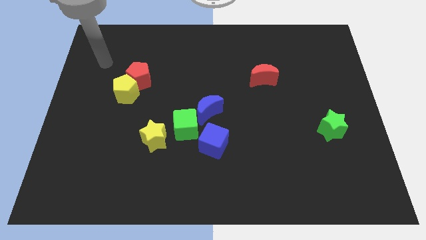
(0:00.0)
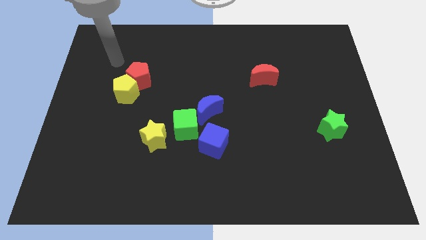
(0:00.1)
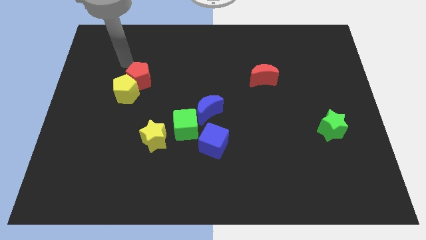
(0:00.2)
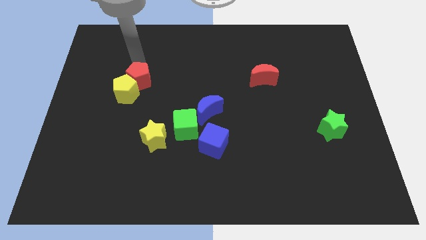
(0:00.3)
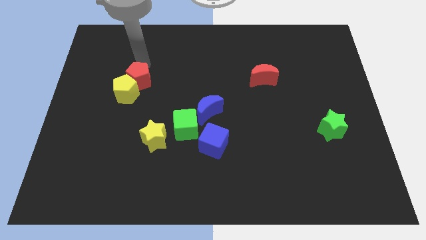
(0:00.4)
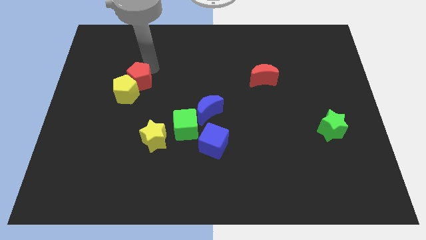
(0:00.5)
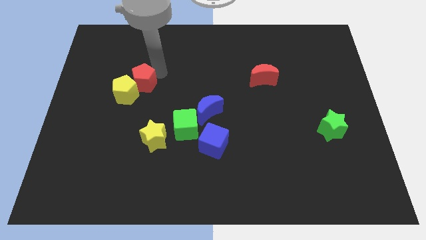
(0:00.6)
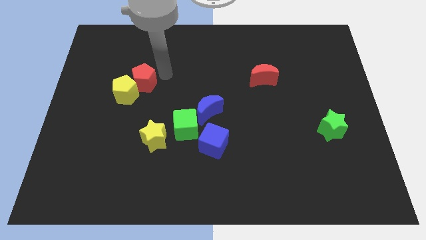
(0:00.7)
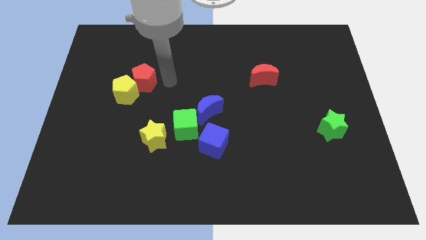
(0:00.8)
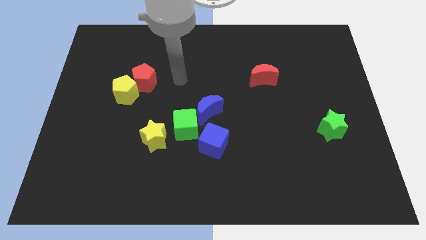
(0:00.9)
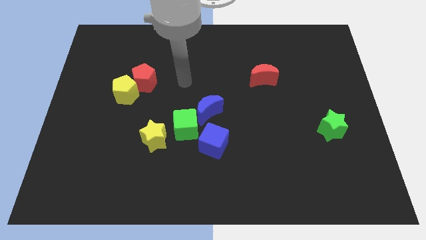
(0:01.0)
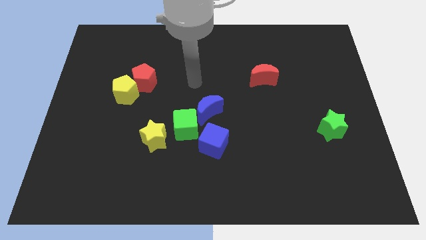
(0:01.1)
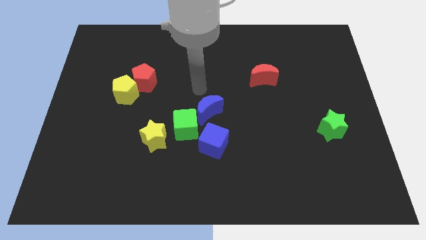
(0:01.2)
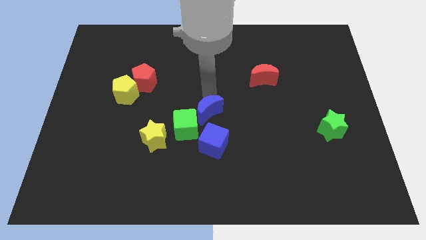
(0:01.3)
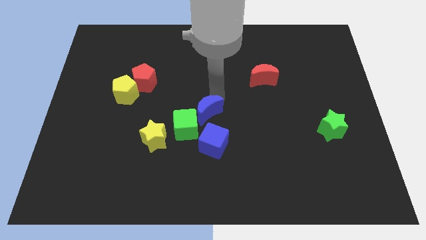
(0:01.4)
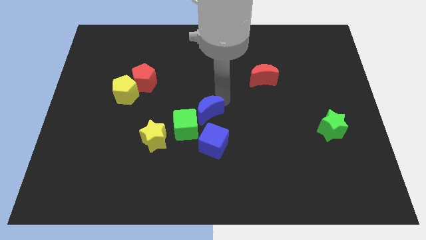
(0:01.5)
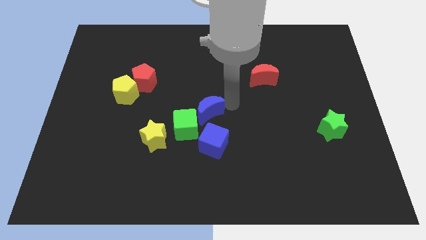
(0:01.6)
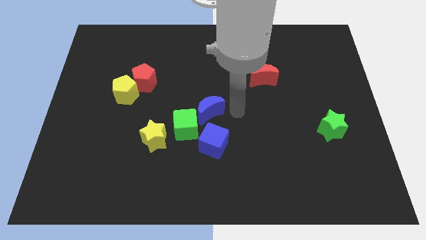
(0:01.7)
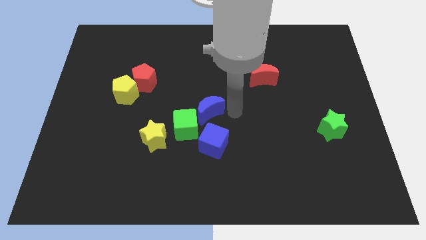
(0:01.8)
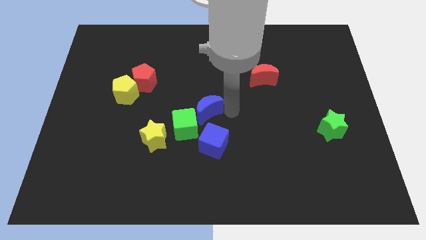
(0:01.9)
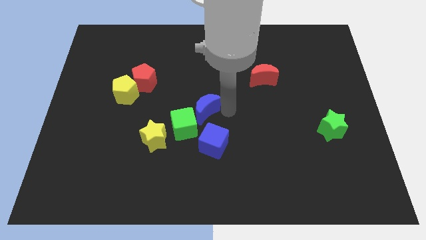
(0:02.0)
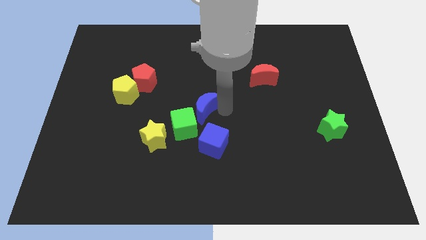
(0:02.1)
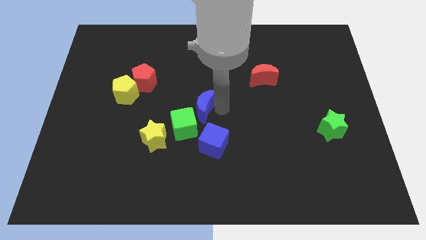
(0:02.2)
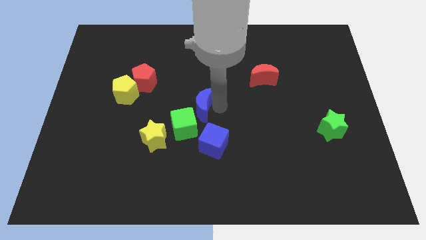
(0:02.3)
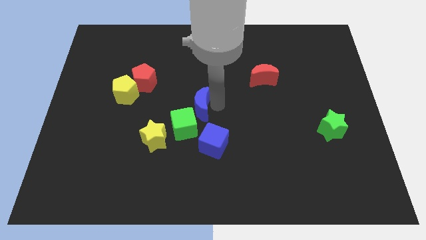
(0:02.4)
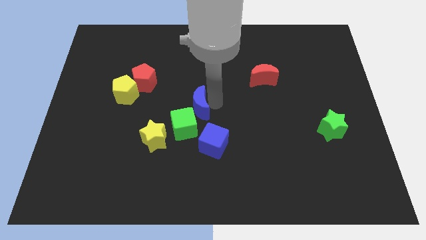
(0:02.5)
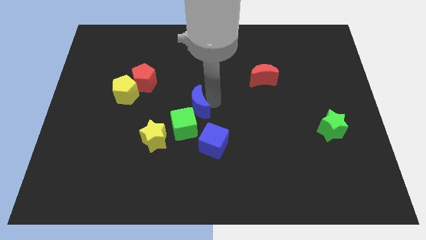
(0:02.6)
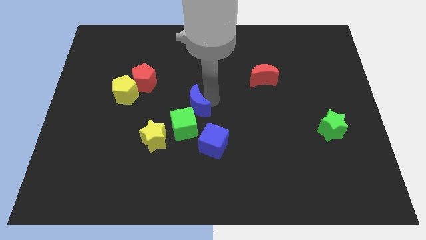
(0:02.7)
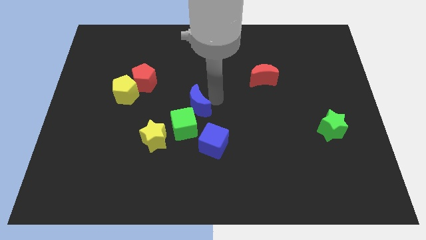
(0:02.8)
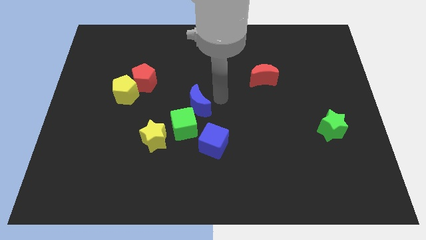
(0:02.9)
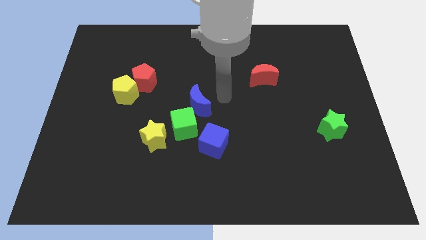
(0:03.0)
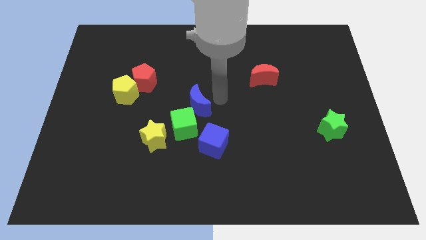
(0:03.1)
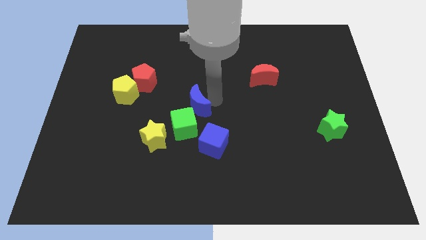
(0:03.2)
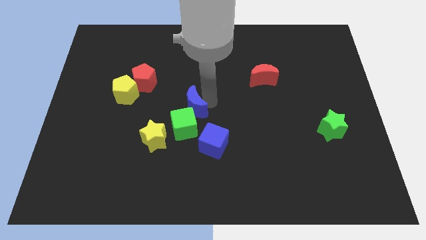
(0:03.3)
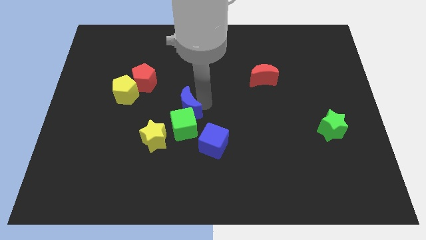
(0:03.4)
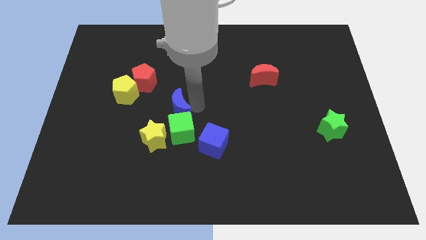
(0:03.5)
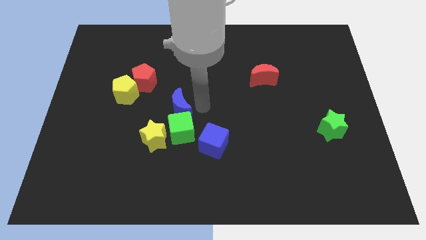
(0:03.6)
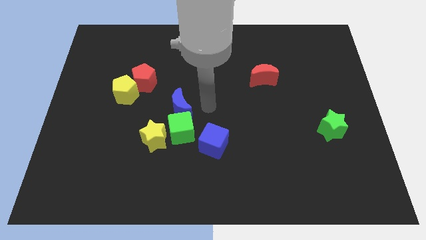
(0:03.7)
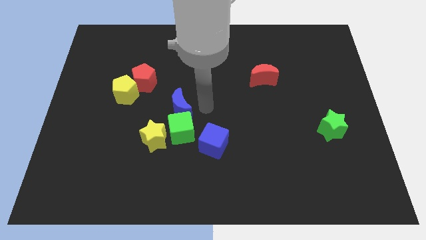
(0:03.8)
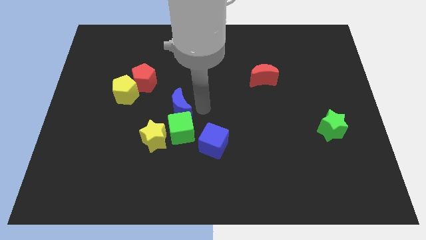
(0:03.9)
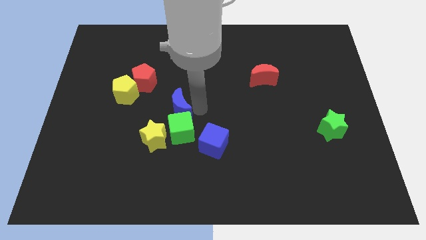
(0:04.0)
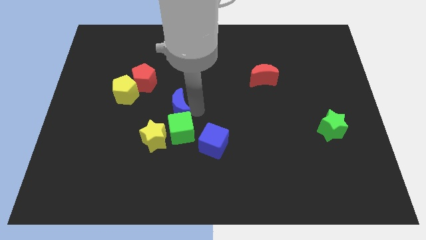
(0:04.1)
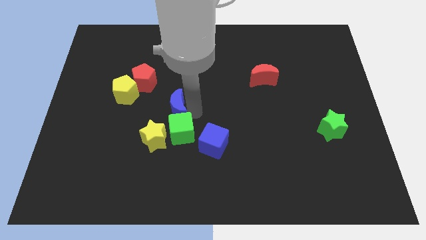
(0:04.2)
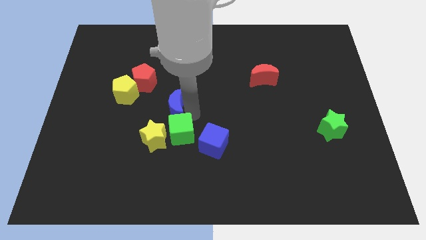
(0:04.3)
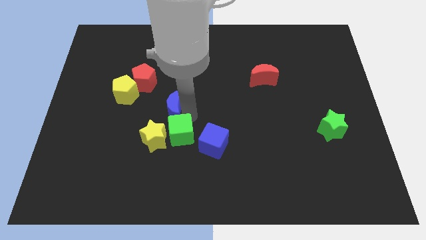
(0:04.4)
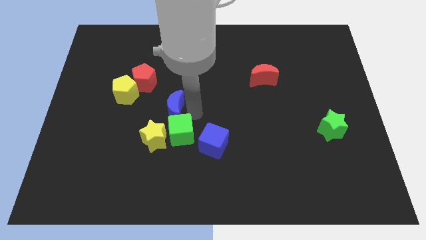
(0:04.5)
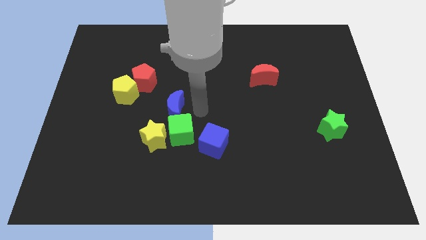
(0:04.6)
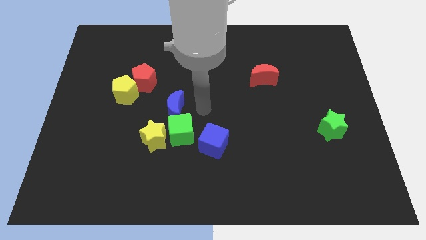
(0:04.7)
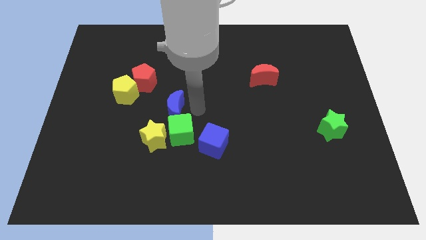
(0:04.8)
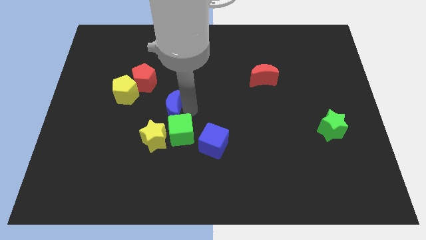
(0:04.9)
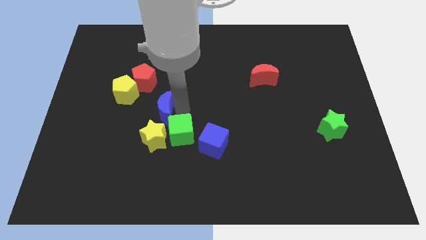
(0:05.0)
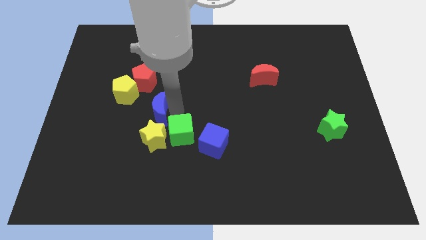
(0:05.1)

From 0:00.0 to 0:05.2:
slide the blue moon to the bottom of the red pentagon

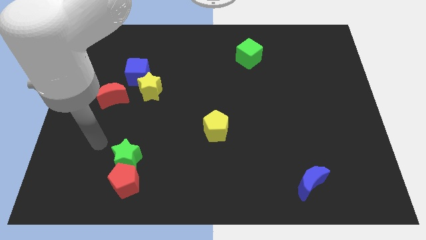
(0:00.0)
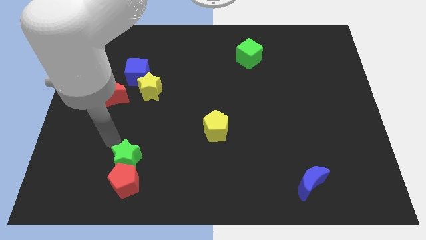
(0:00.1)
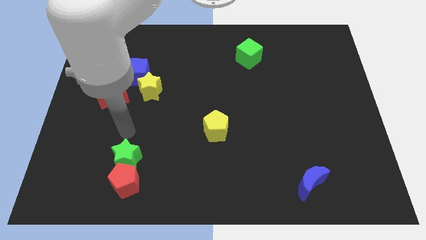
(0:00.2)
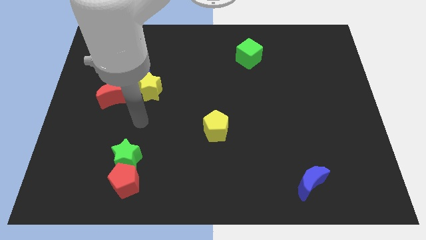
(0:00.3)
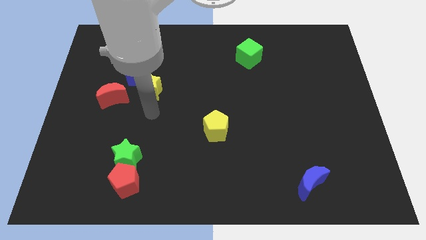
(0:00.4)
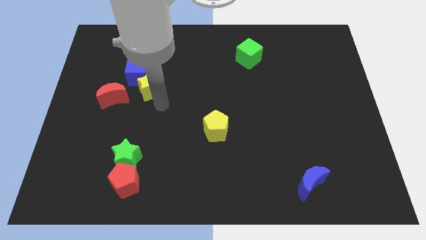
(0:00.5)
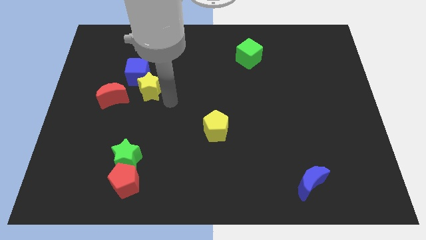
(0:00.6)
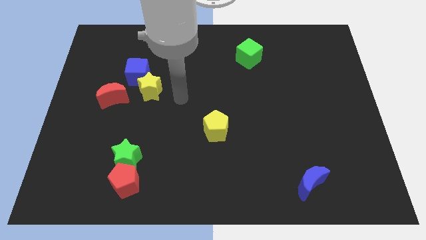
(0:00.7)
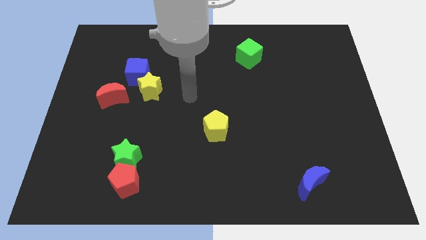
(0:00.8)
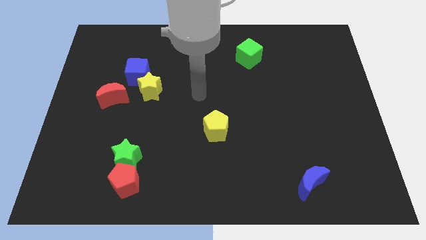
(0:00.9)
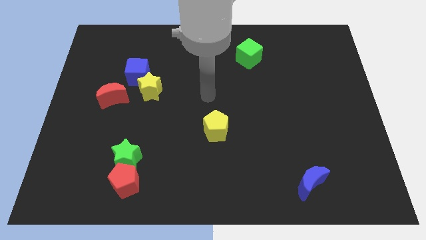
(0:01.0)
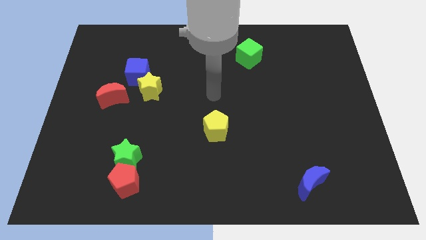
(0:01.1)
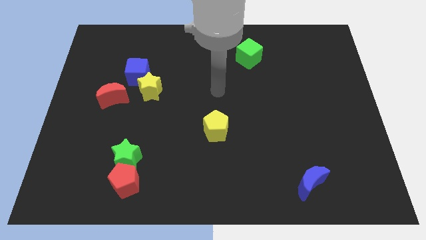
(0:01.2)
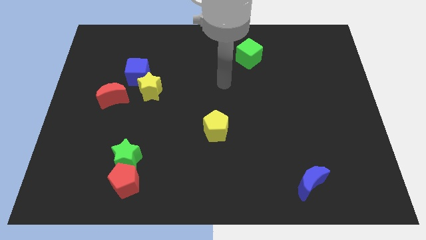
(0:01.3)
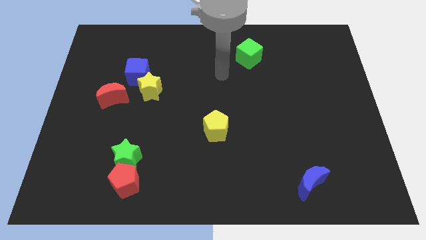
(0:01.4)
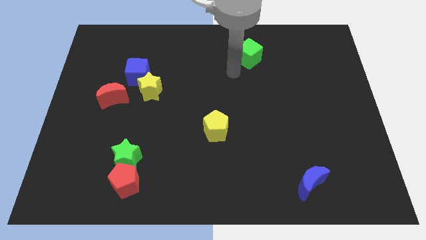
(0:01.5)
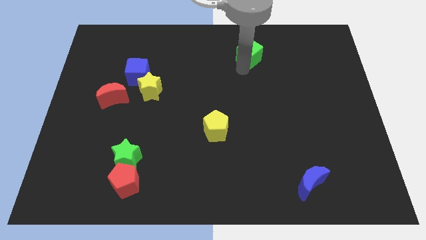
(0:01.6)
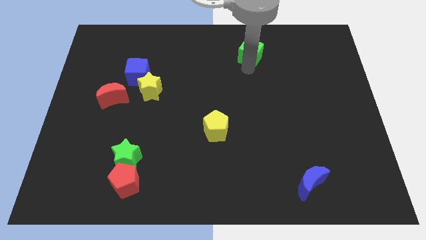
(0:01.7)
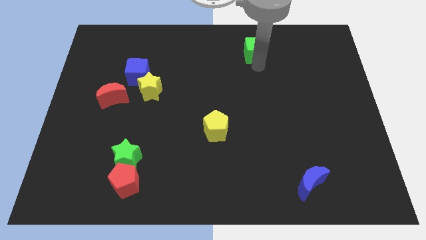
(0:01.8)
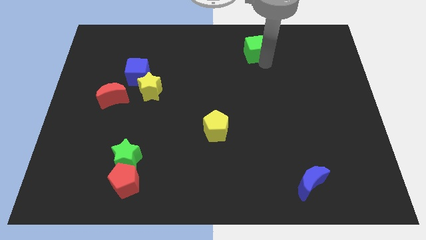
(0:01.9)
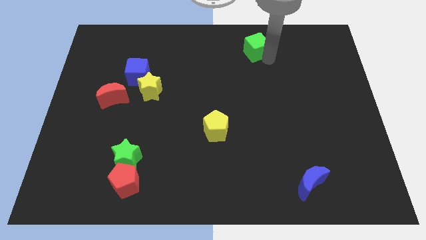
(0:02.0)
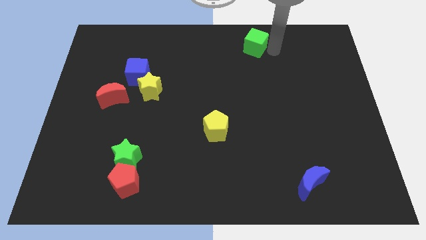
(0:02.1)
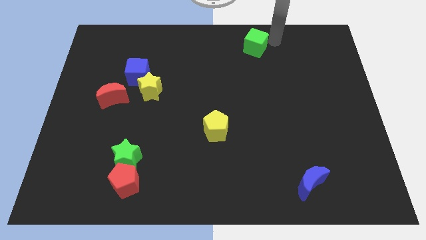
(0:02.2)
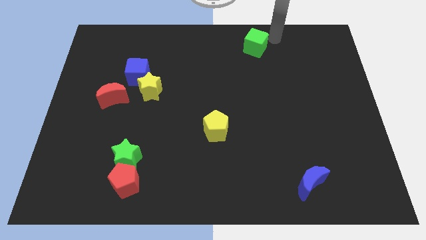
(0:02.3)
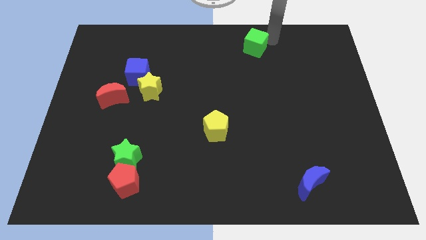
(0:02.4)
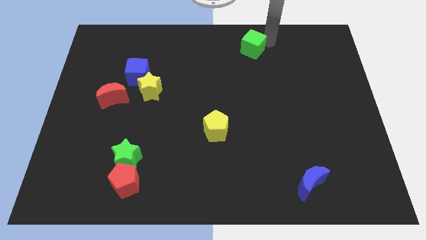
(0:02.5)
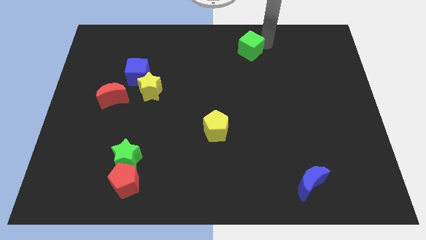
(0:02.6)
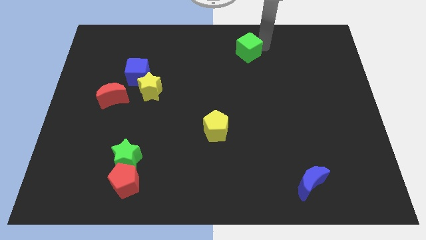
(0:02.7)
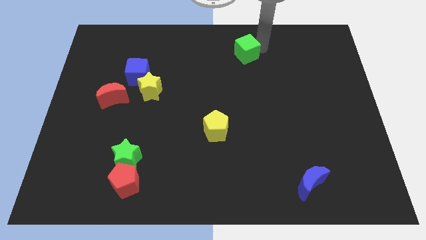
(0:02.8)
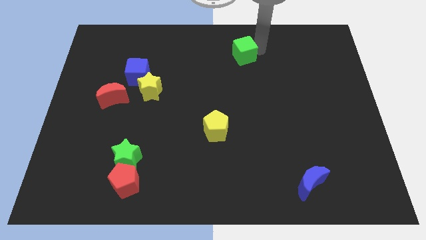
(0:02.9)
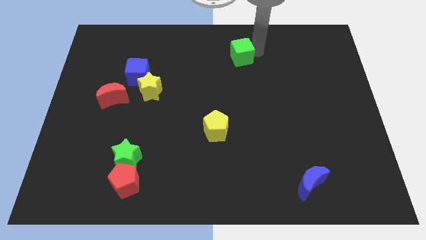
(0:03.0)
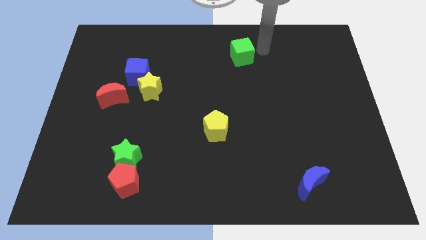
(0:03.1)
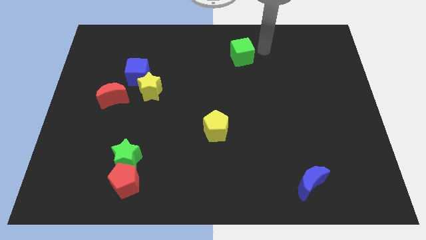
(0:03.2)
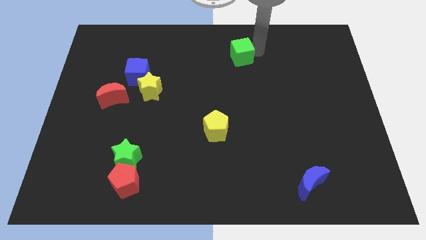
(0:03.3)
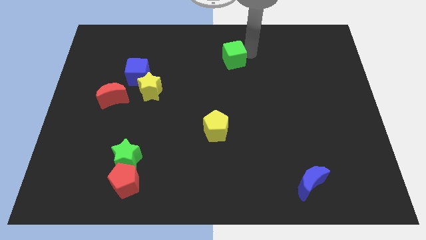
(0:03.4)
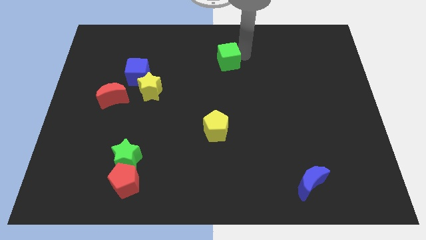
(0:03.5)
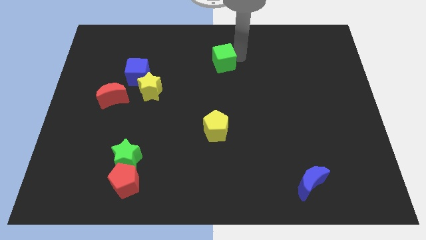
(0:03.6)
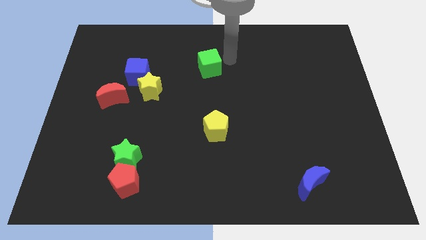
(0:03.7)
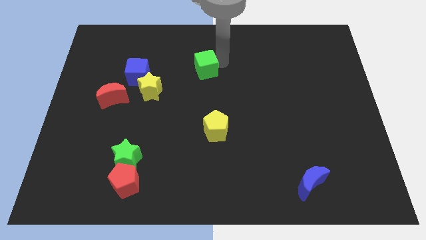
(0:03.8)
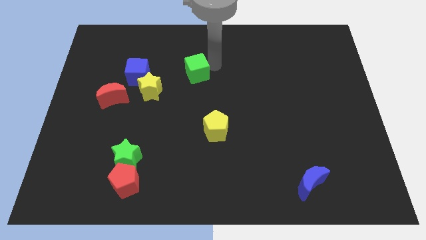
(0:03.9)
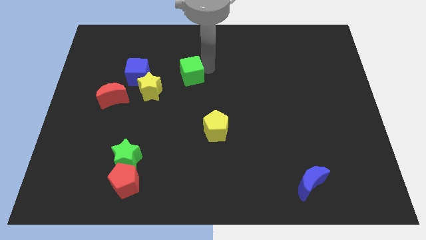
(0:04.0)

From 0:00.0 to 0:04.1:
put the green cube to the top right of the yellow star
